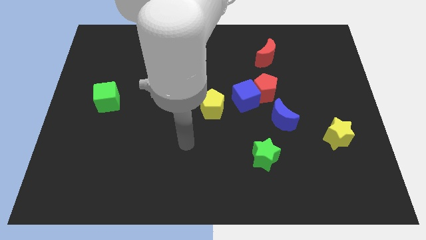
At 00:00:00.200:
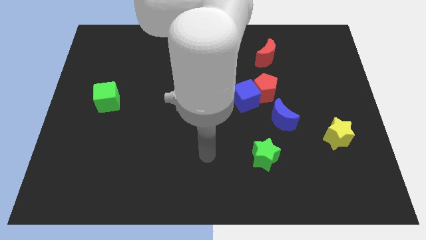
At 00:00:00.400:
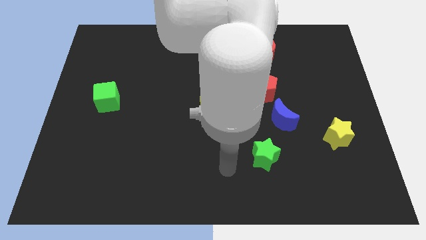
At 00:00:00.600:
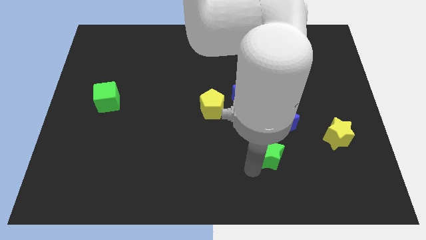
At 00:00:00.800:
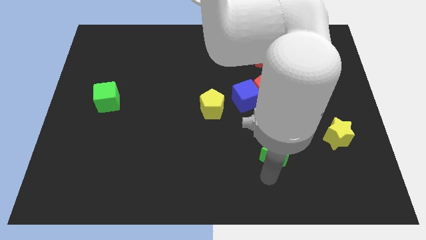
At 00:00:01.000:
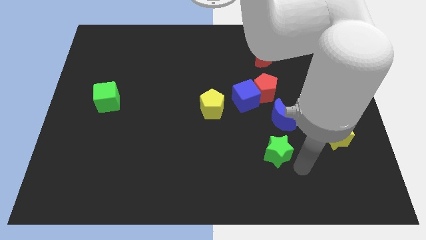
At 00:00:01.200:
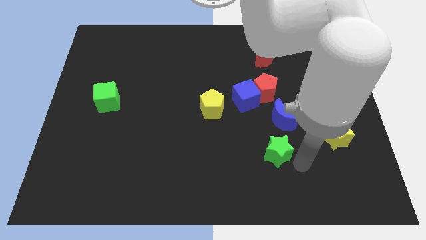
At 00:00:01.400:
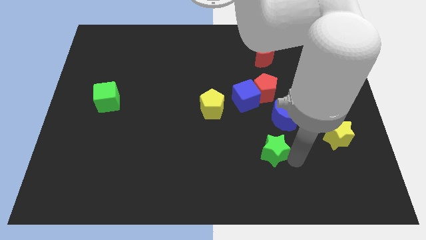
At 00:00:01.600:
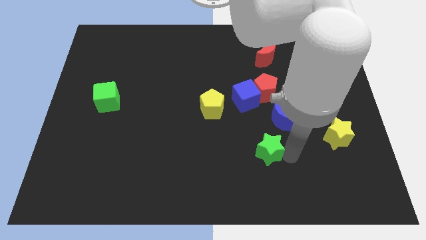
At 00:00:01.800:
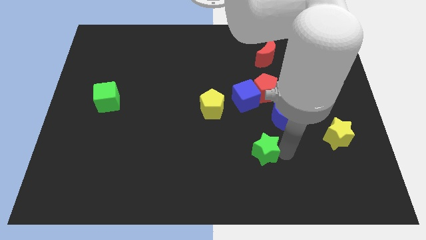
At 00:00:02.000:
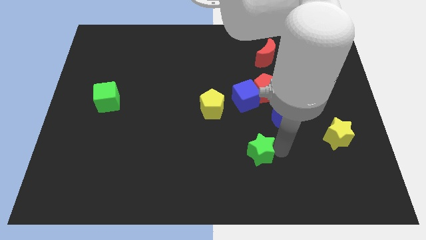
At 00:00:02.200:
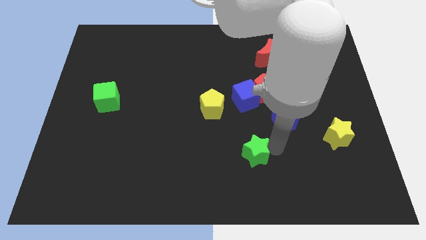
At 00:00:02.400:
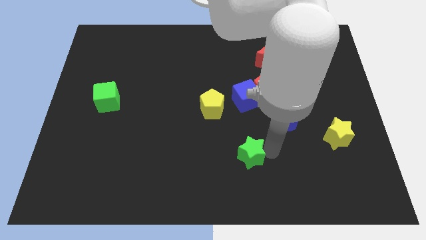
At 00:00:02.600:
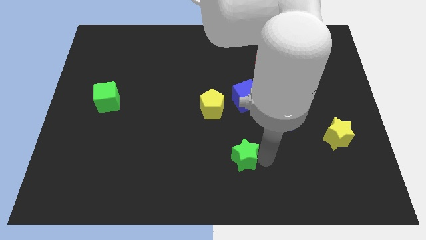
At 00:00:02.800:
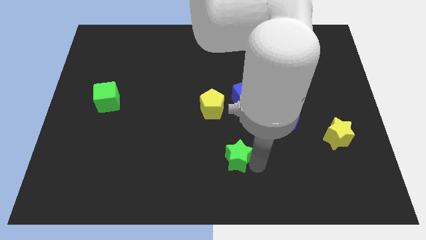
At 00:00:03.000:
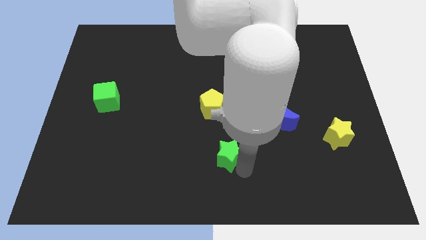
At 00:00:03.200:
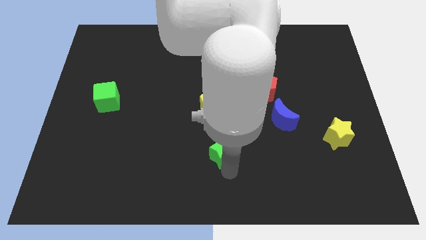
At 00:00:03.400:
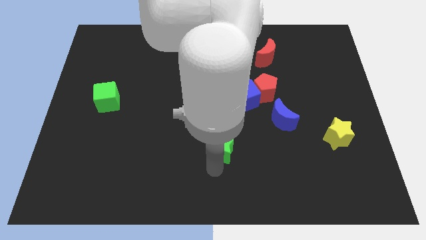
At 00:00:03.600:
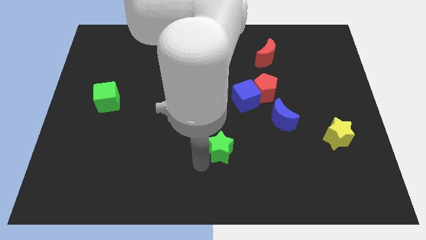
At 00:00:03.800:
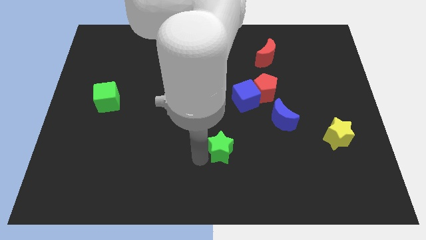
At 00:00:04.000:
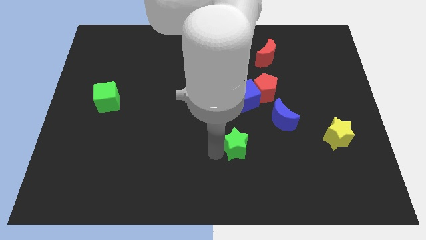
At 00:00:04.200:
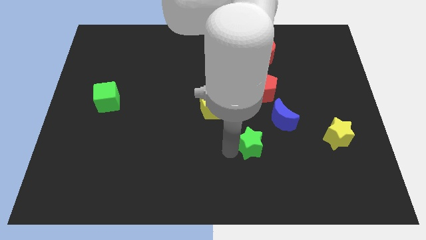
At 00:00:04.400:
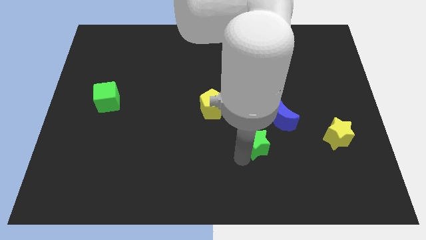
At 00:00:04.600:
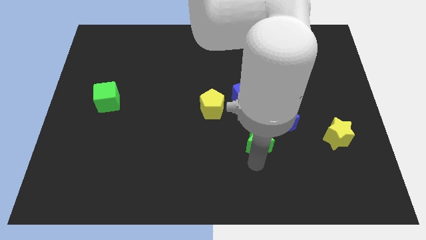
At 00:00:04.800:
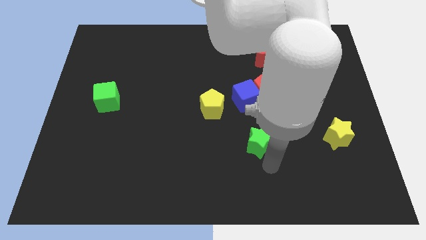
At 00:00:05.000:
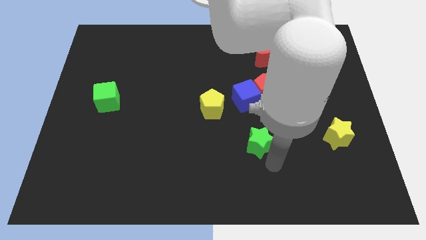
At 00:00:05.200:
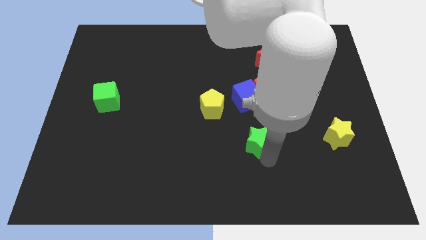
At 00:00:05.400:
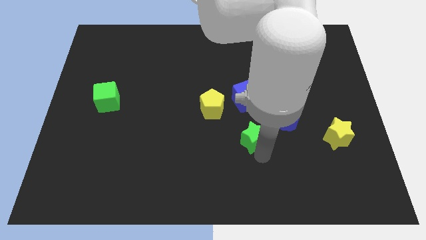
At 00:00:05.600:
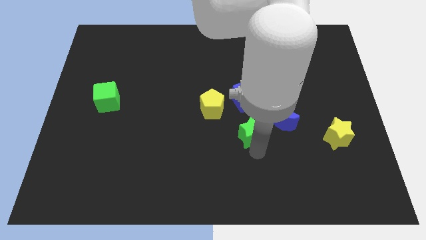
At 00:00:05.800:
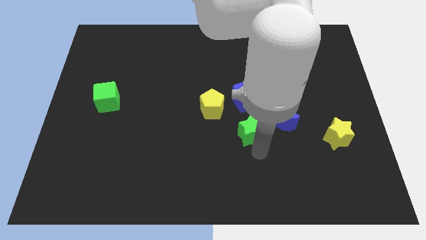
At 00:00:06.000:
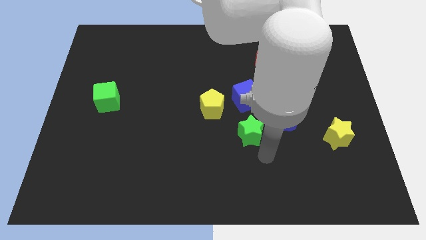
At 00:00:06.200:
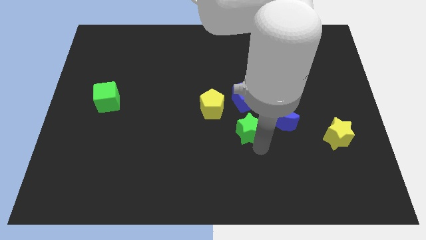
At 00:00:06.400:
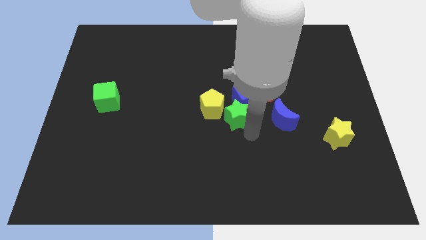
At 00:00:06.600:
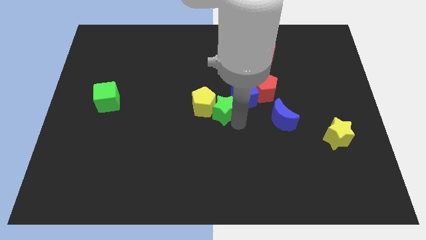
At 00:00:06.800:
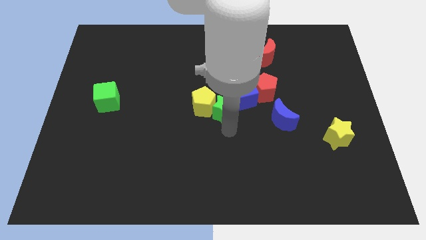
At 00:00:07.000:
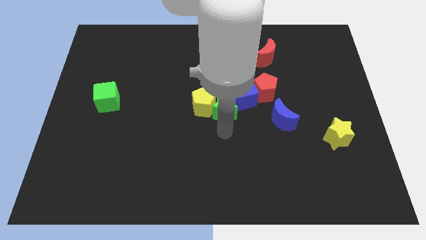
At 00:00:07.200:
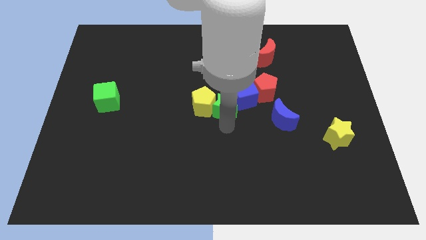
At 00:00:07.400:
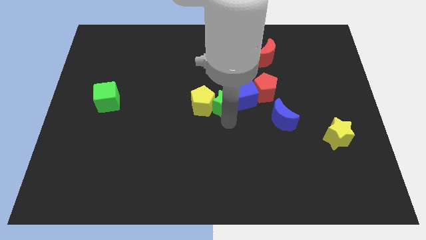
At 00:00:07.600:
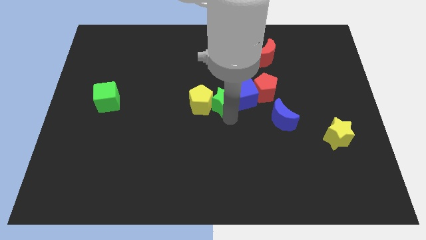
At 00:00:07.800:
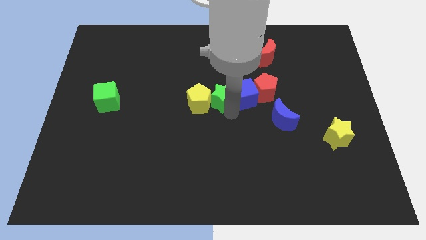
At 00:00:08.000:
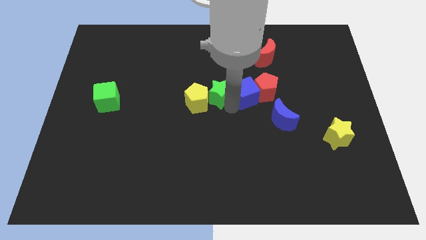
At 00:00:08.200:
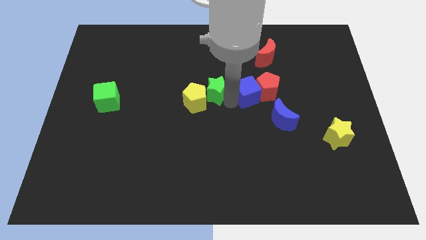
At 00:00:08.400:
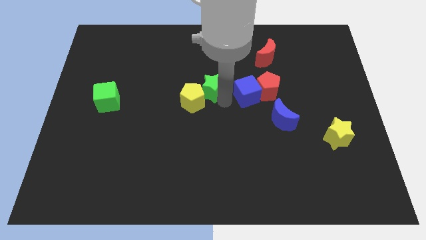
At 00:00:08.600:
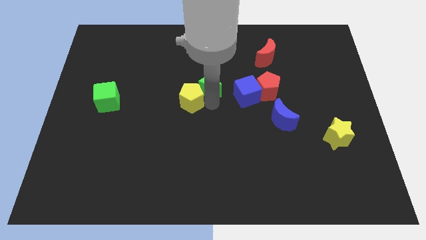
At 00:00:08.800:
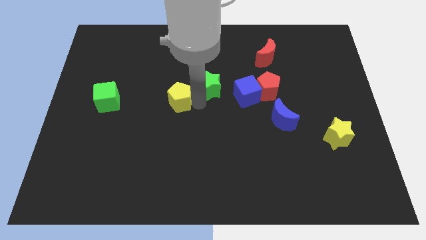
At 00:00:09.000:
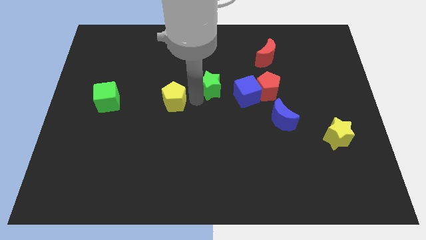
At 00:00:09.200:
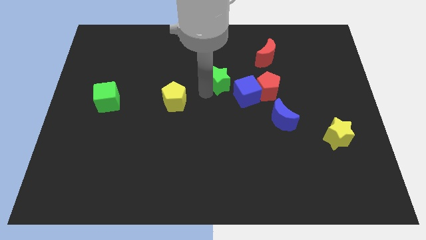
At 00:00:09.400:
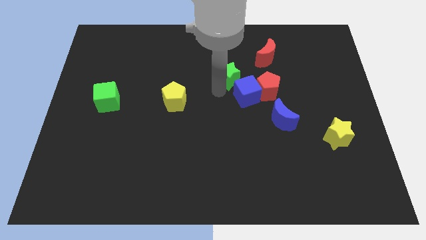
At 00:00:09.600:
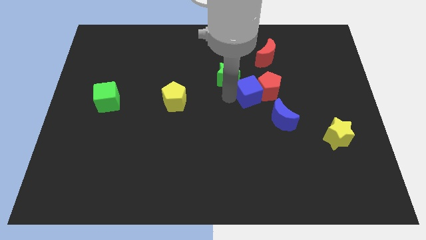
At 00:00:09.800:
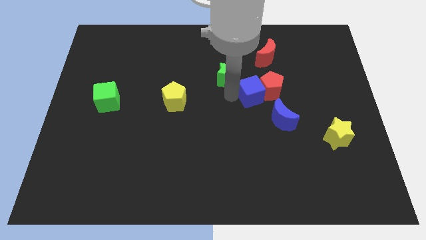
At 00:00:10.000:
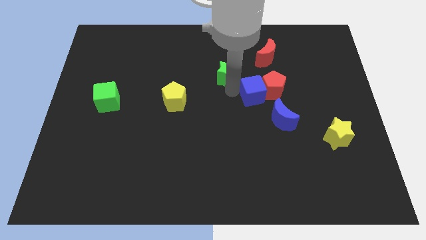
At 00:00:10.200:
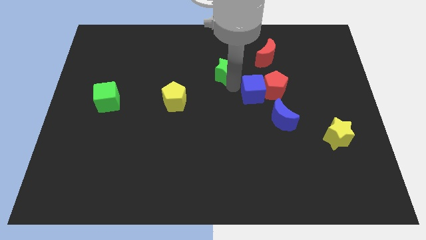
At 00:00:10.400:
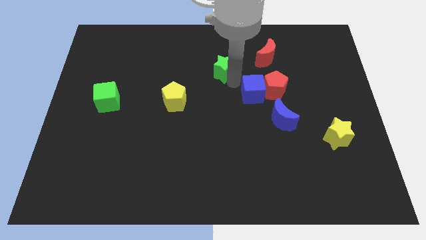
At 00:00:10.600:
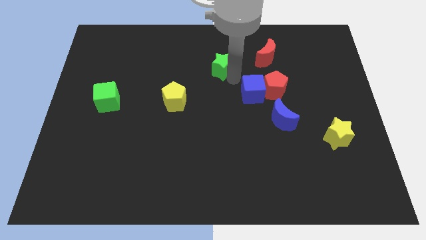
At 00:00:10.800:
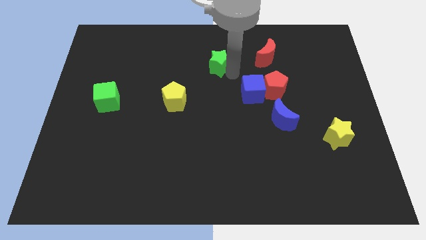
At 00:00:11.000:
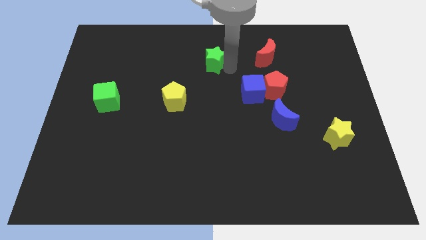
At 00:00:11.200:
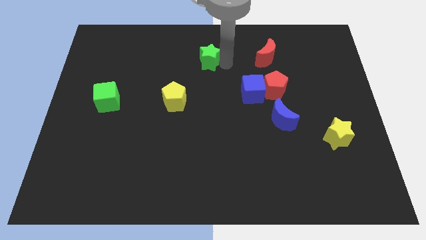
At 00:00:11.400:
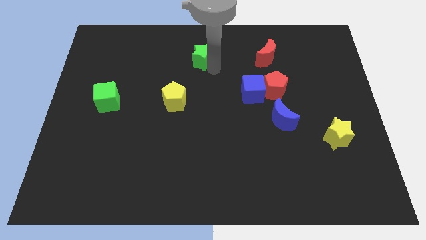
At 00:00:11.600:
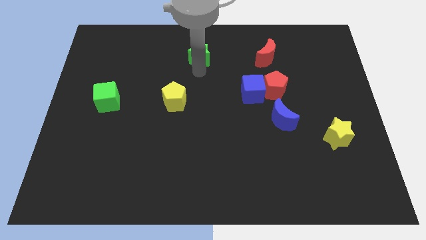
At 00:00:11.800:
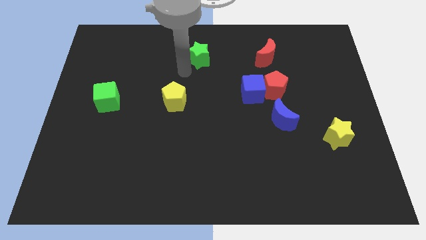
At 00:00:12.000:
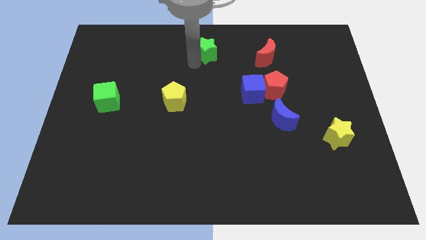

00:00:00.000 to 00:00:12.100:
slide the green star to the top
